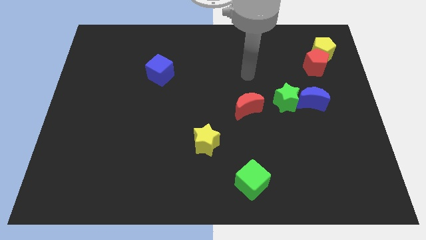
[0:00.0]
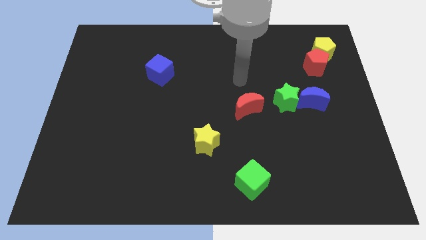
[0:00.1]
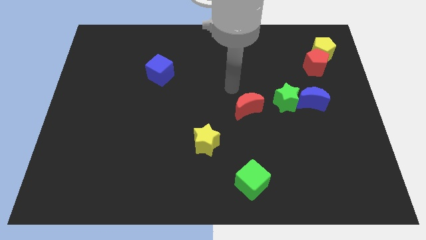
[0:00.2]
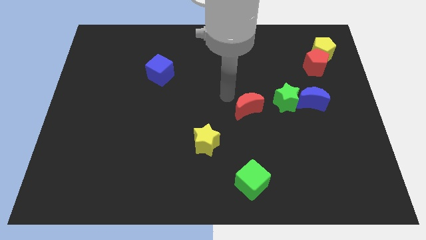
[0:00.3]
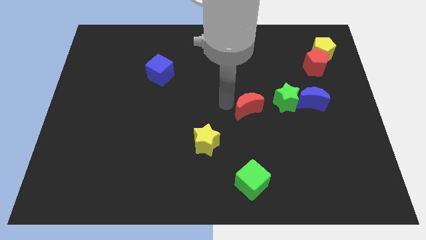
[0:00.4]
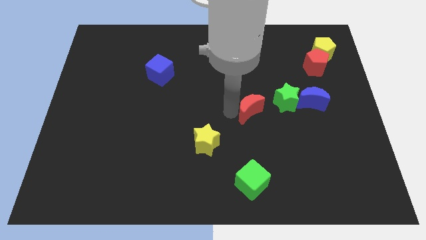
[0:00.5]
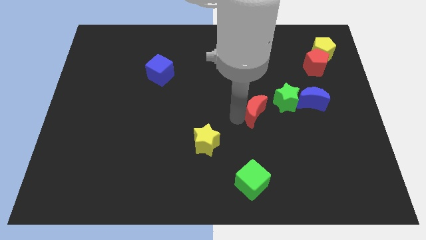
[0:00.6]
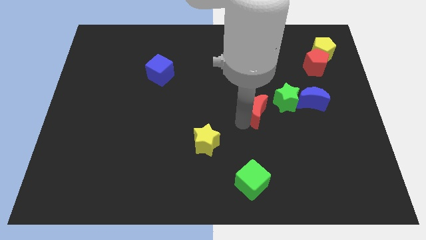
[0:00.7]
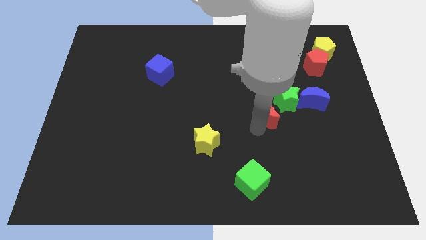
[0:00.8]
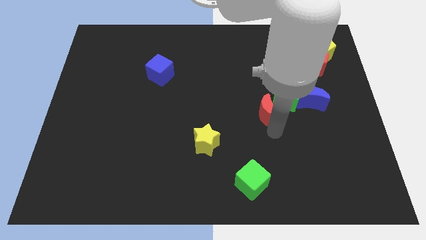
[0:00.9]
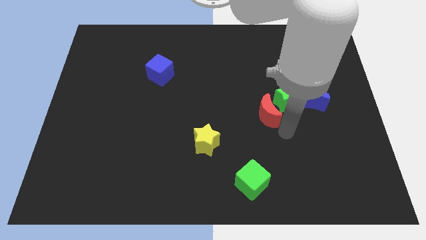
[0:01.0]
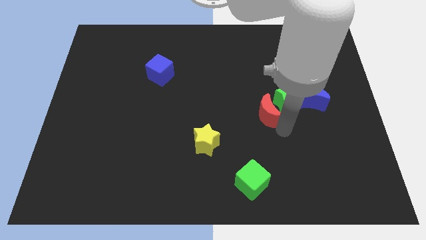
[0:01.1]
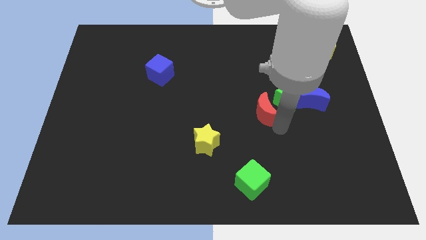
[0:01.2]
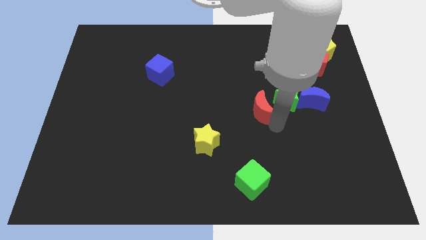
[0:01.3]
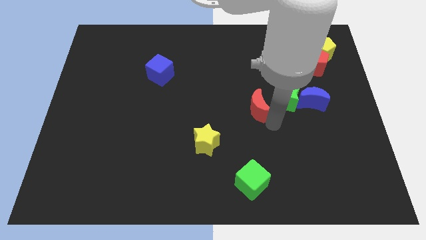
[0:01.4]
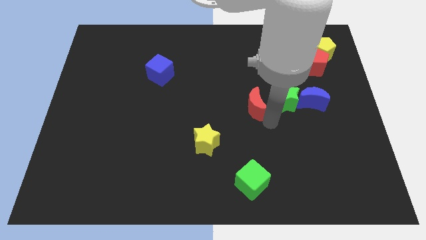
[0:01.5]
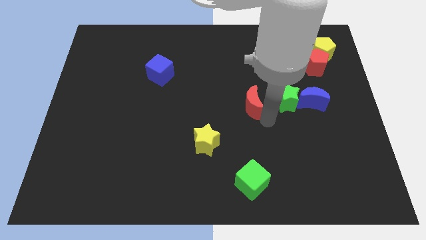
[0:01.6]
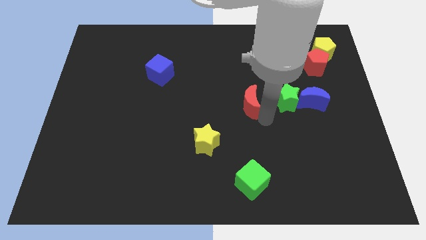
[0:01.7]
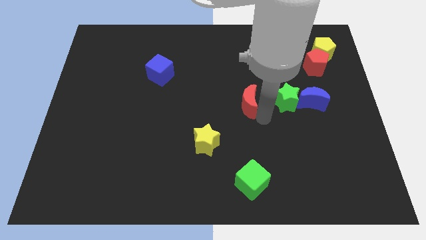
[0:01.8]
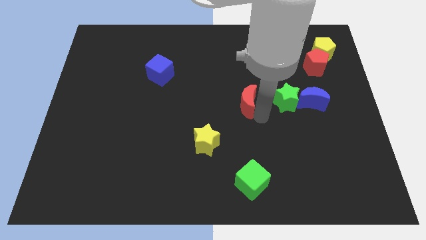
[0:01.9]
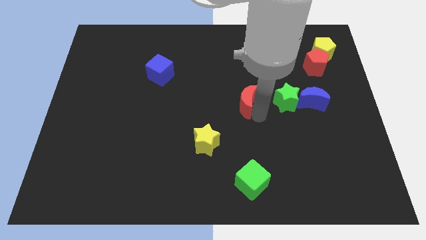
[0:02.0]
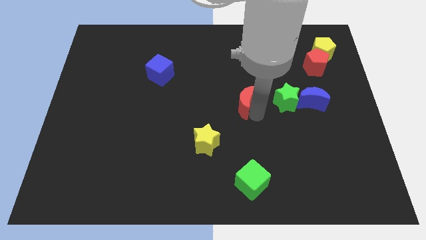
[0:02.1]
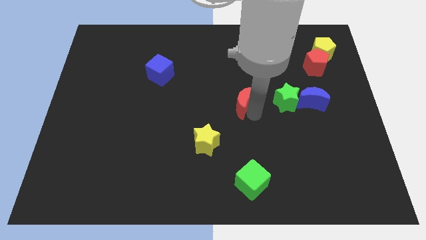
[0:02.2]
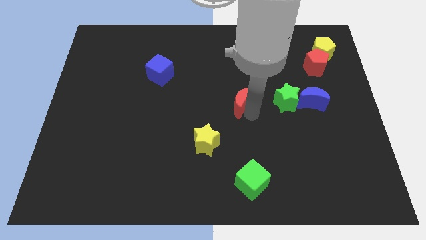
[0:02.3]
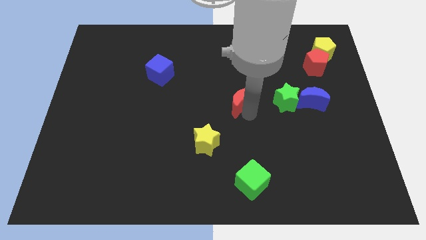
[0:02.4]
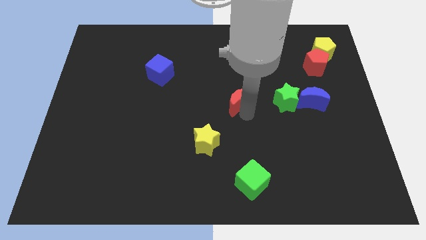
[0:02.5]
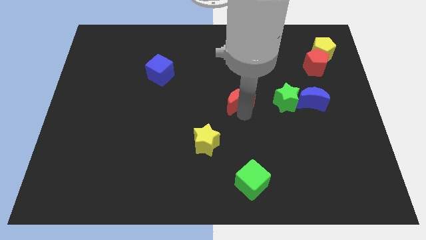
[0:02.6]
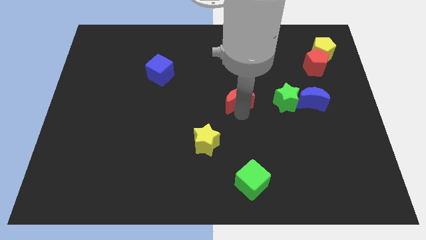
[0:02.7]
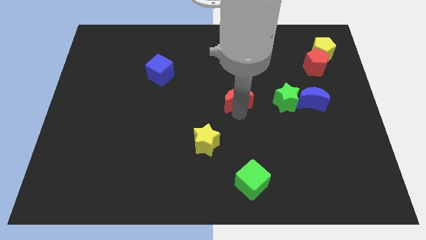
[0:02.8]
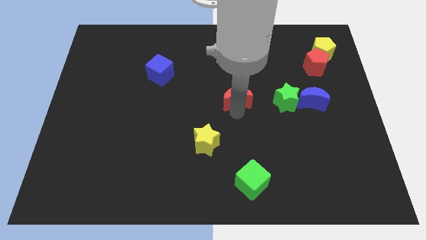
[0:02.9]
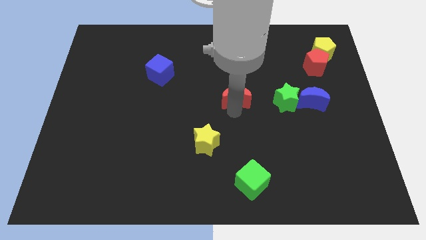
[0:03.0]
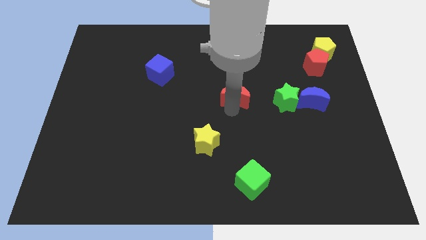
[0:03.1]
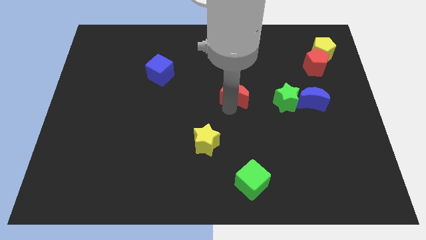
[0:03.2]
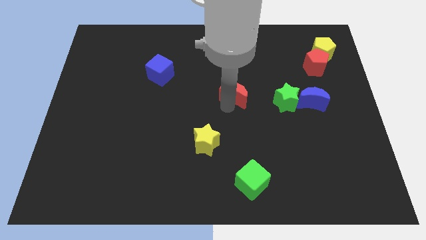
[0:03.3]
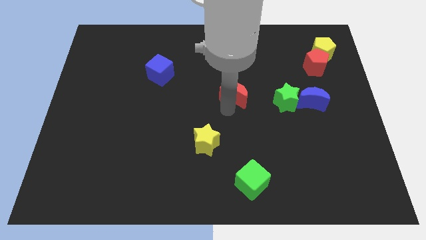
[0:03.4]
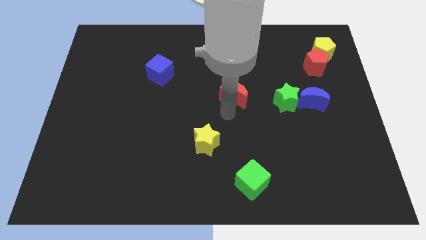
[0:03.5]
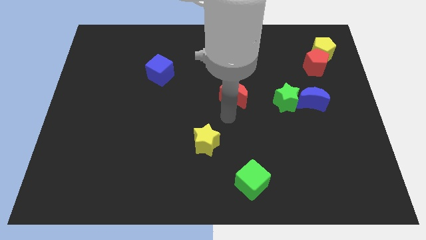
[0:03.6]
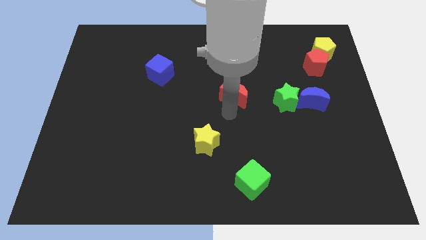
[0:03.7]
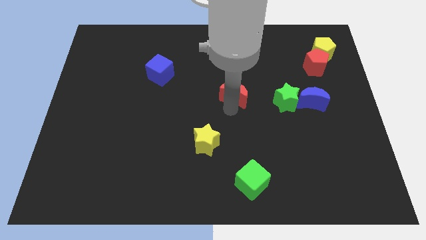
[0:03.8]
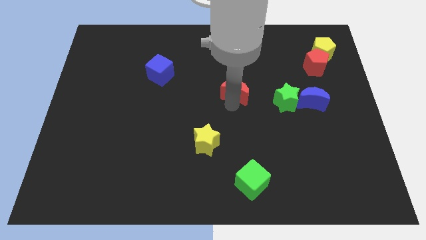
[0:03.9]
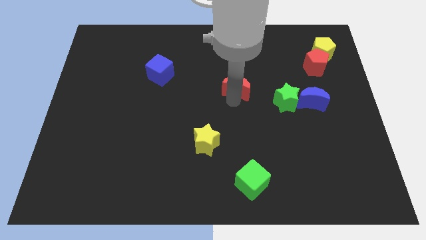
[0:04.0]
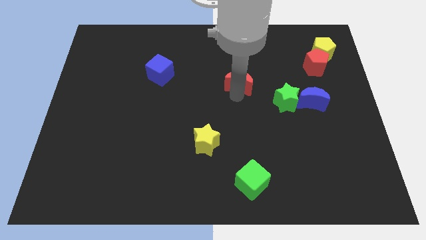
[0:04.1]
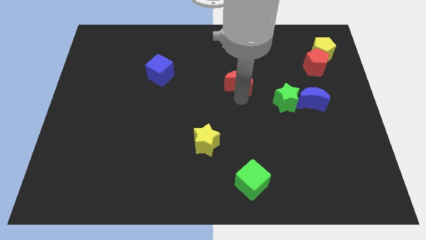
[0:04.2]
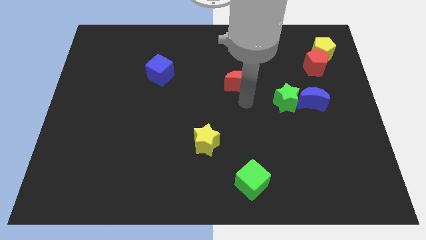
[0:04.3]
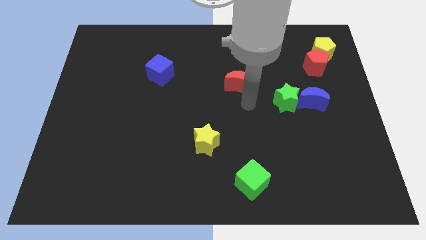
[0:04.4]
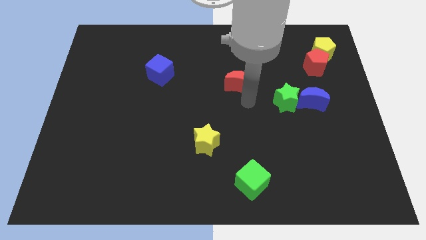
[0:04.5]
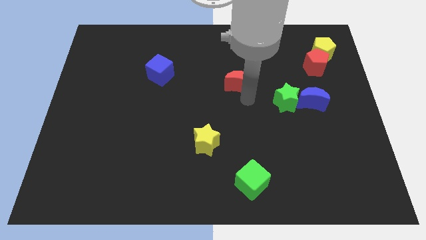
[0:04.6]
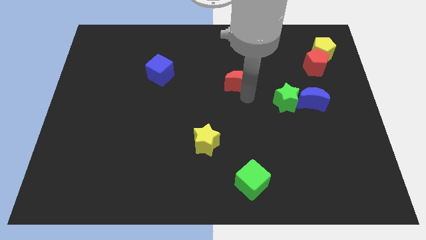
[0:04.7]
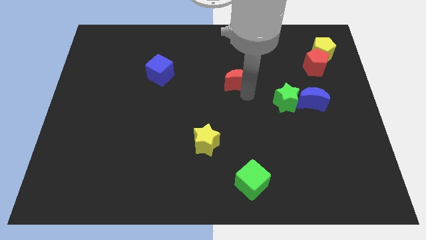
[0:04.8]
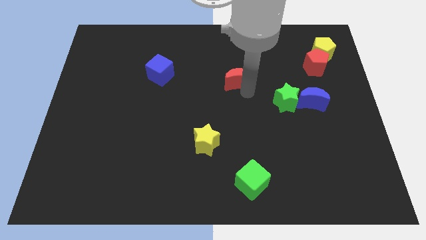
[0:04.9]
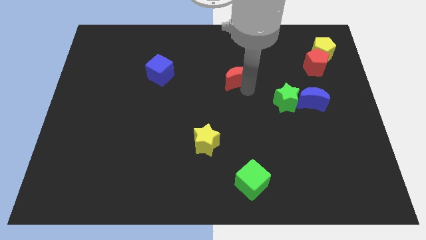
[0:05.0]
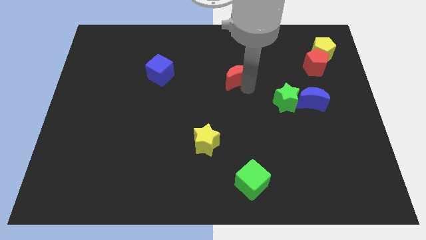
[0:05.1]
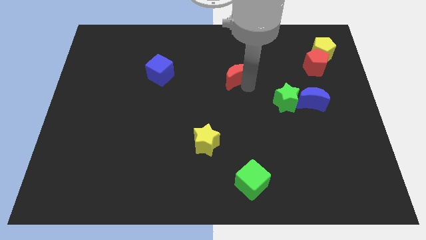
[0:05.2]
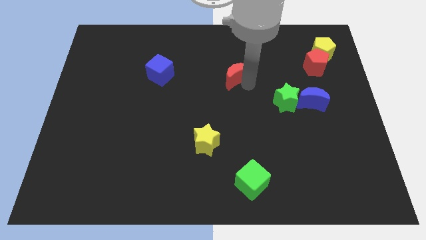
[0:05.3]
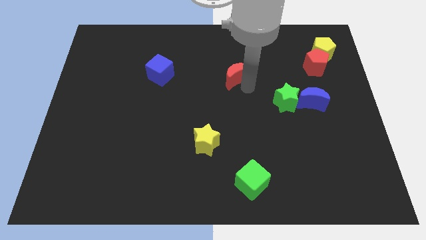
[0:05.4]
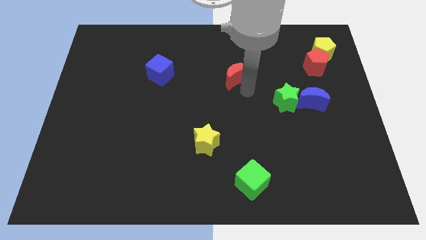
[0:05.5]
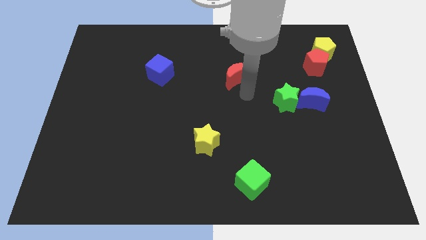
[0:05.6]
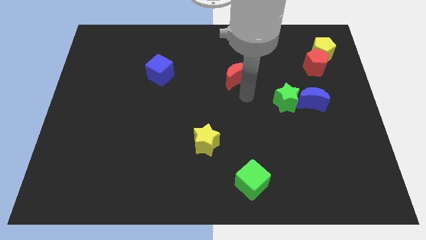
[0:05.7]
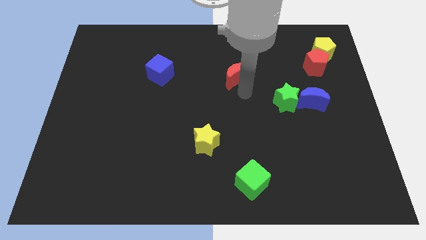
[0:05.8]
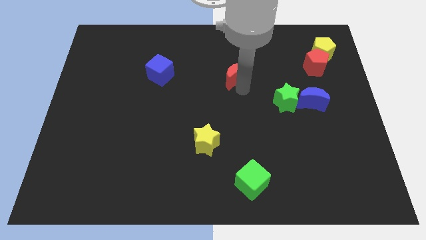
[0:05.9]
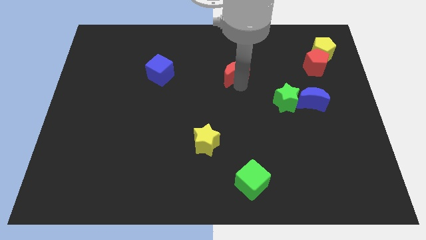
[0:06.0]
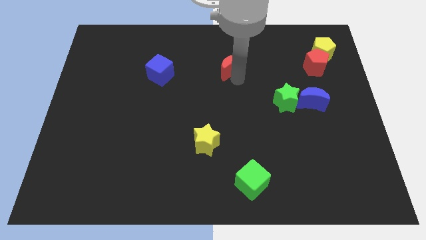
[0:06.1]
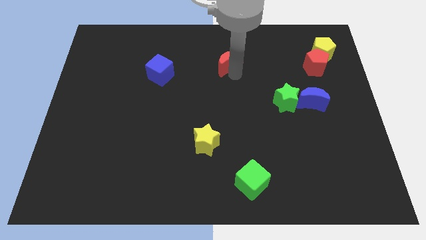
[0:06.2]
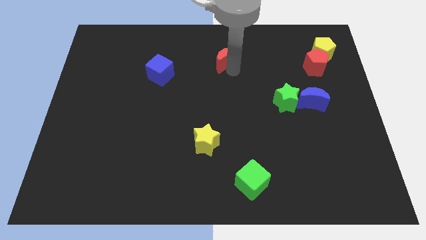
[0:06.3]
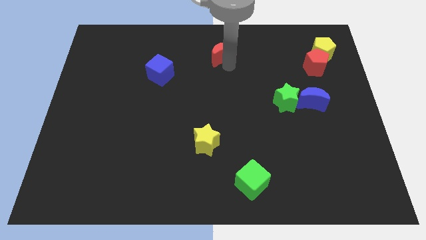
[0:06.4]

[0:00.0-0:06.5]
slide the red moon to the towards your base

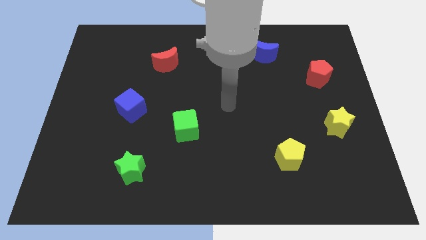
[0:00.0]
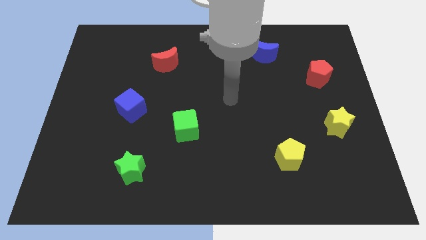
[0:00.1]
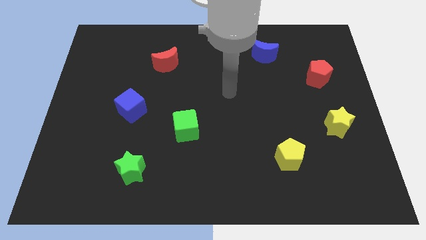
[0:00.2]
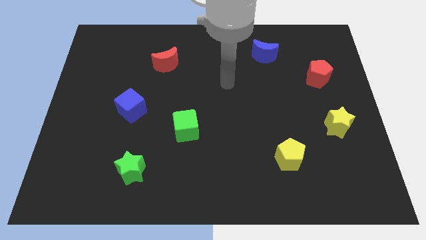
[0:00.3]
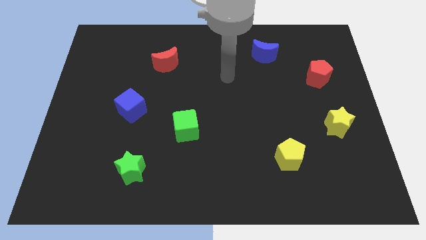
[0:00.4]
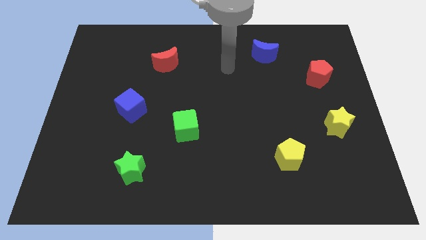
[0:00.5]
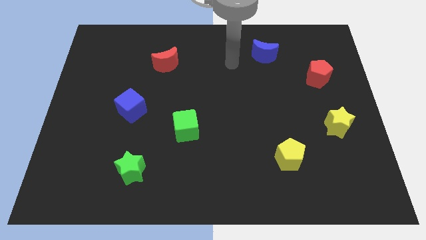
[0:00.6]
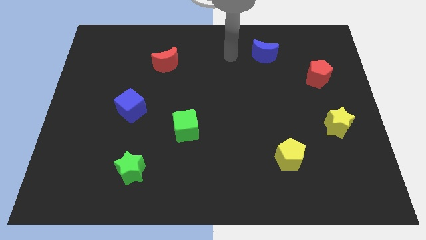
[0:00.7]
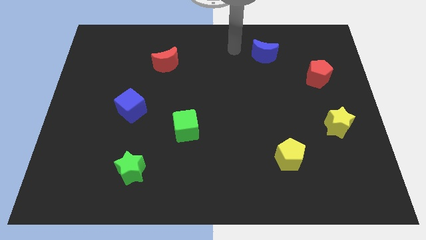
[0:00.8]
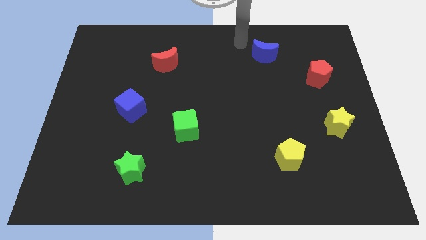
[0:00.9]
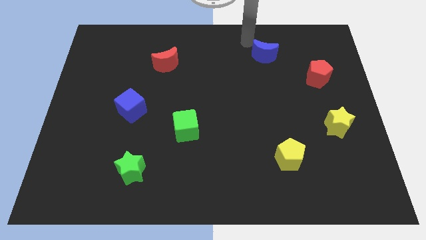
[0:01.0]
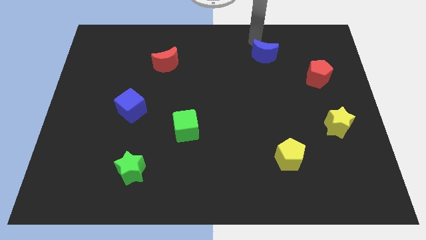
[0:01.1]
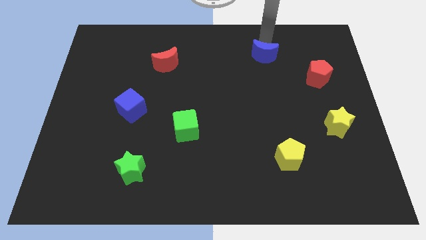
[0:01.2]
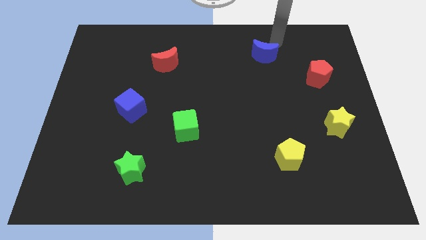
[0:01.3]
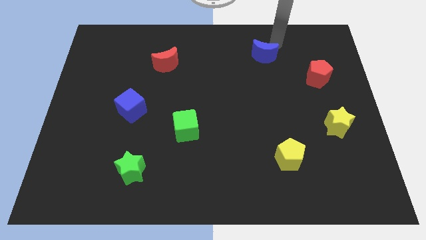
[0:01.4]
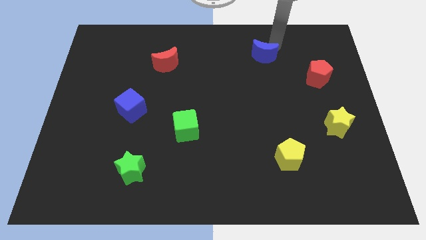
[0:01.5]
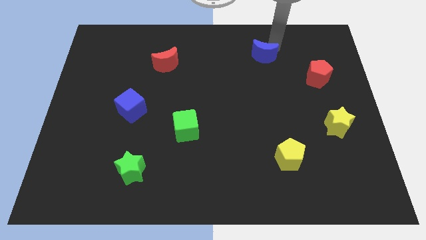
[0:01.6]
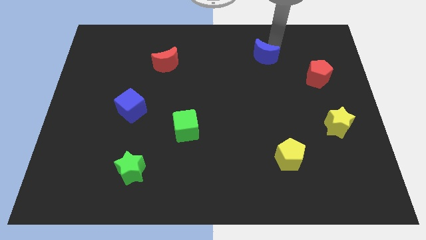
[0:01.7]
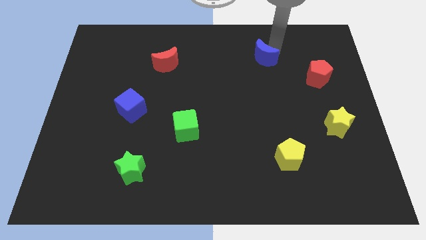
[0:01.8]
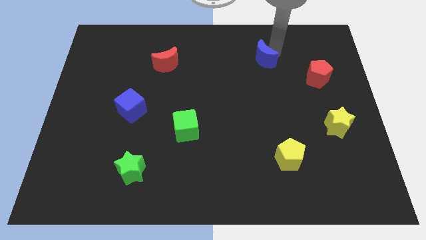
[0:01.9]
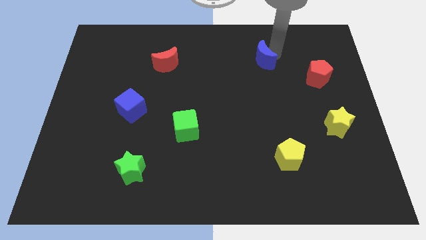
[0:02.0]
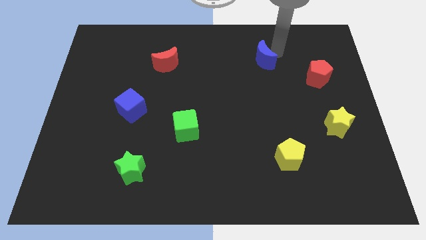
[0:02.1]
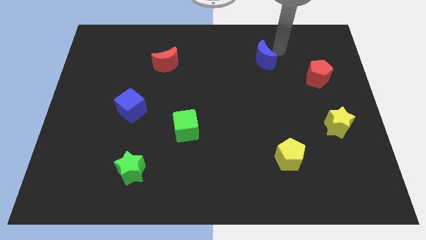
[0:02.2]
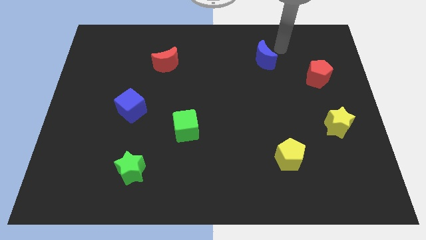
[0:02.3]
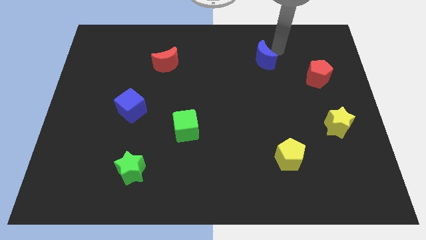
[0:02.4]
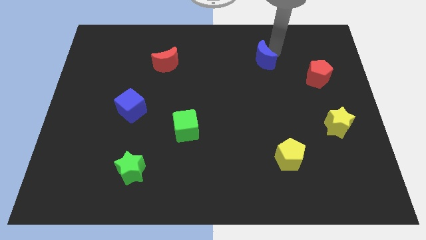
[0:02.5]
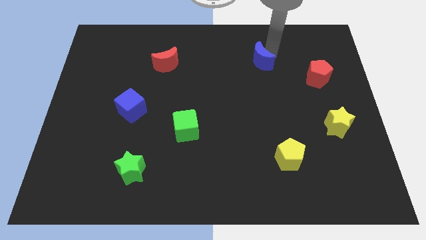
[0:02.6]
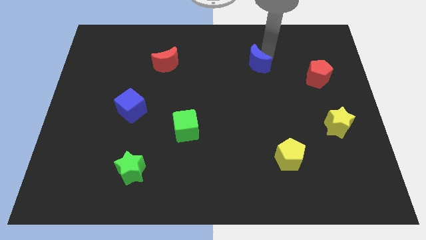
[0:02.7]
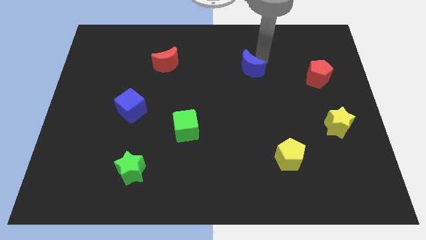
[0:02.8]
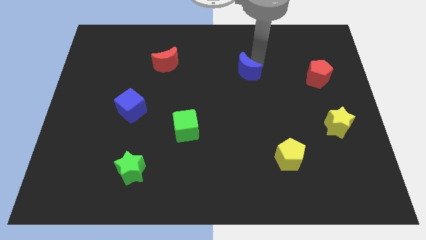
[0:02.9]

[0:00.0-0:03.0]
slide the blue moon to the center
